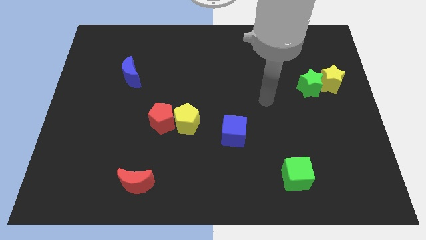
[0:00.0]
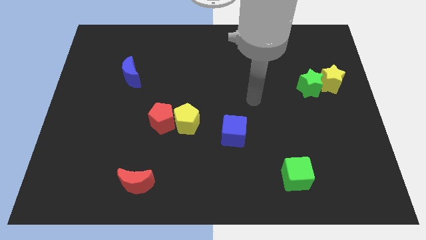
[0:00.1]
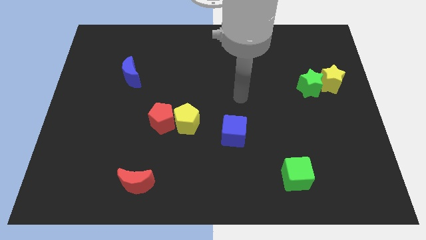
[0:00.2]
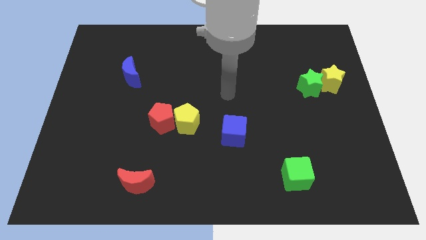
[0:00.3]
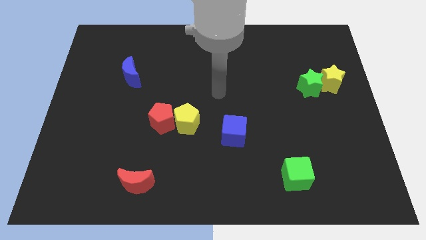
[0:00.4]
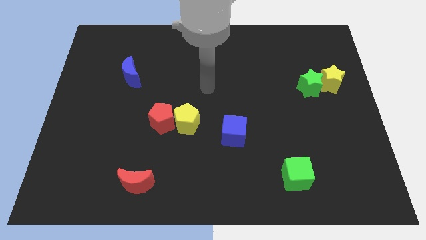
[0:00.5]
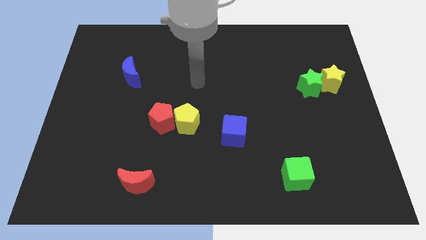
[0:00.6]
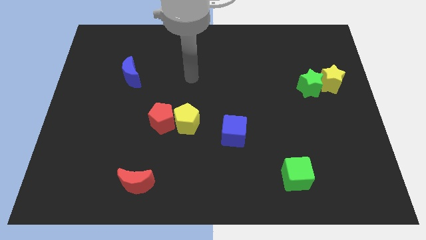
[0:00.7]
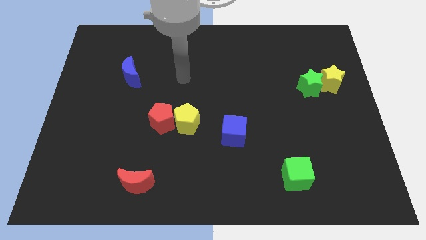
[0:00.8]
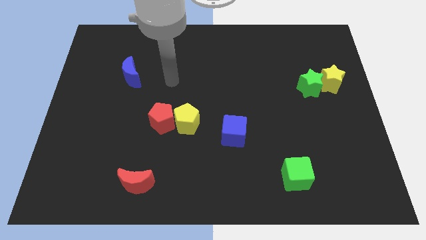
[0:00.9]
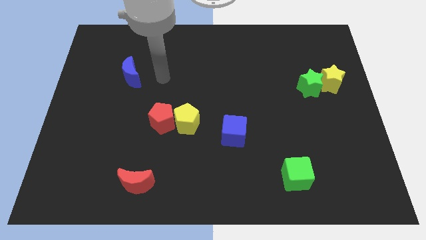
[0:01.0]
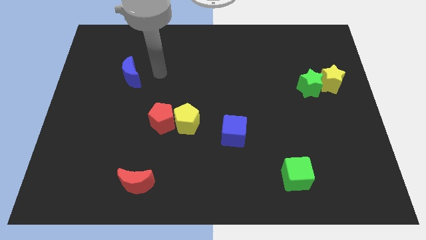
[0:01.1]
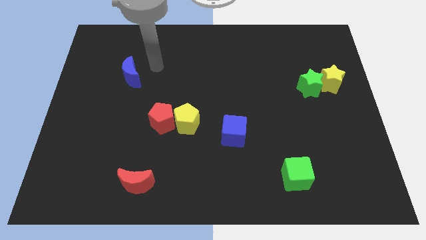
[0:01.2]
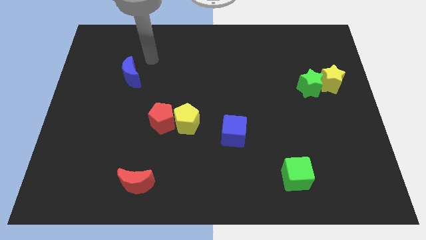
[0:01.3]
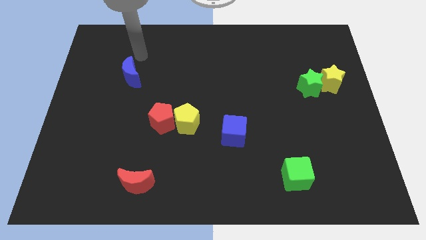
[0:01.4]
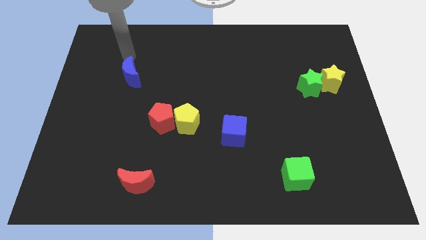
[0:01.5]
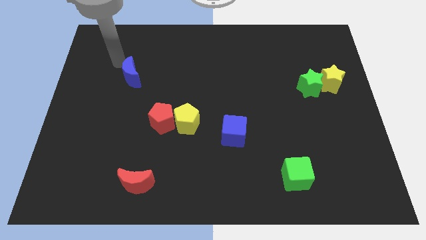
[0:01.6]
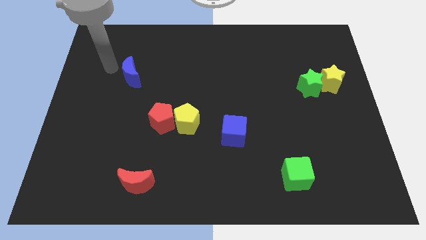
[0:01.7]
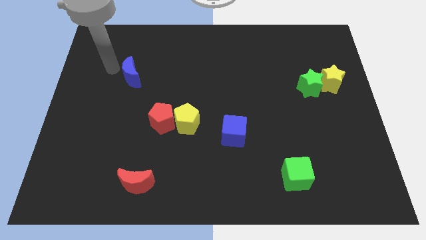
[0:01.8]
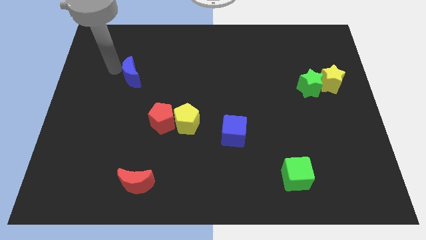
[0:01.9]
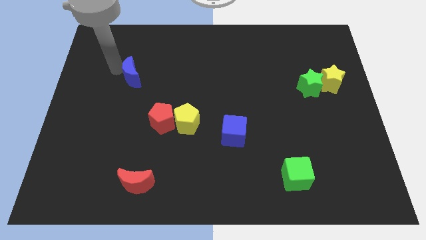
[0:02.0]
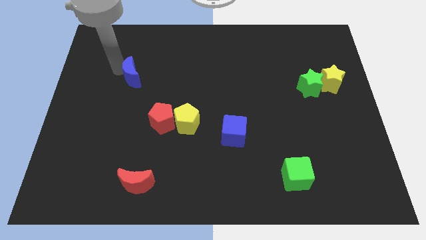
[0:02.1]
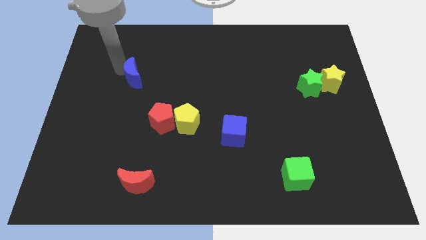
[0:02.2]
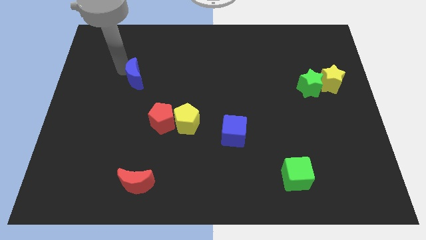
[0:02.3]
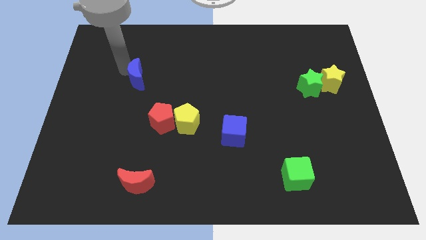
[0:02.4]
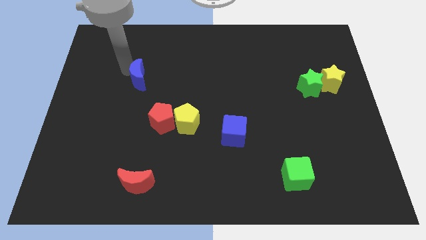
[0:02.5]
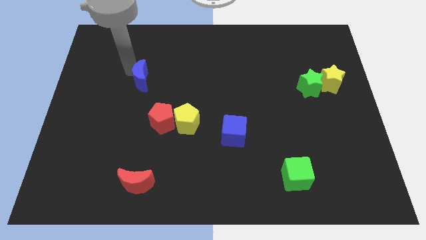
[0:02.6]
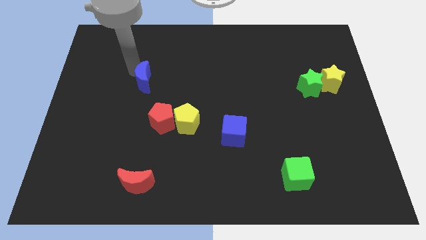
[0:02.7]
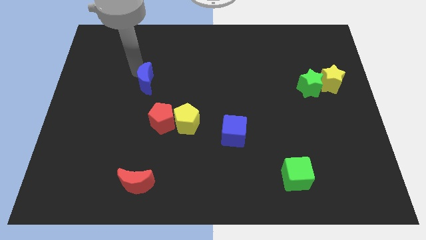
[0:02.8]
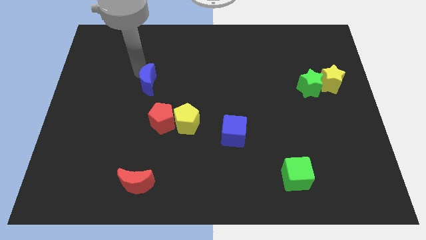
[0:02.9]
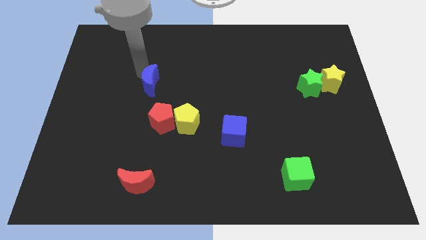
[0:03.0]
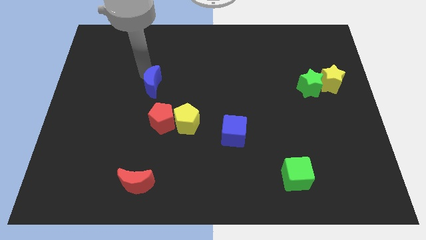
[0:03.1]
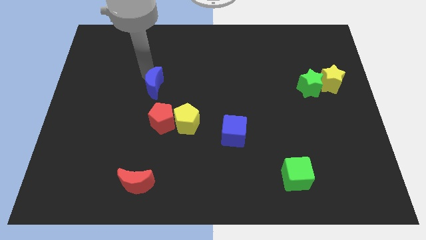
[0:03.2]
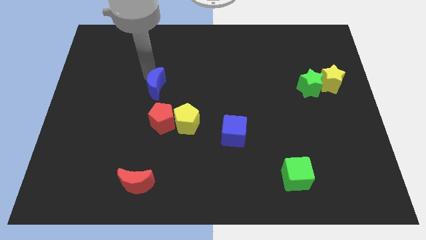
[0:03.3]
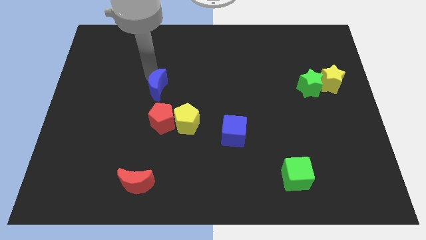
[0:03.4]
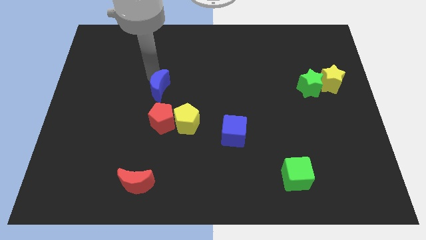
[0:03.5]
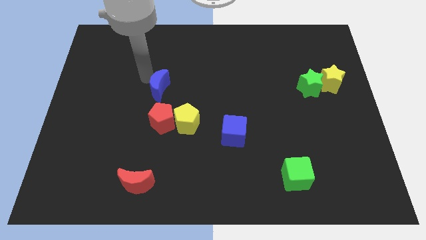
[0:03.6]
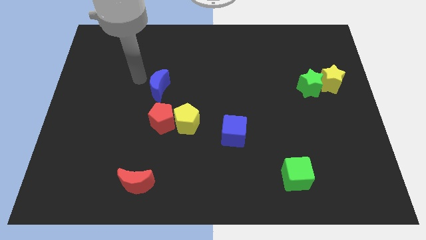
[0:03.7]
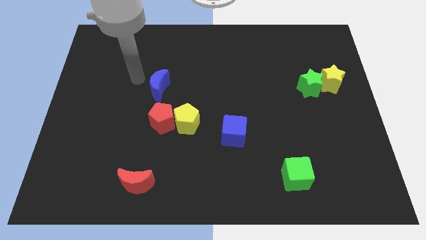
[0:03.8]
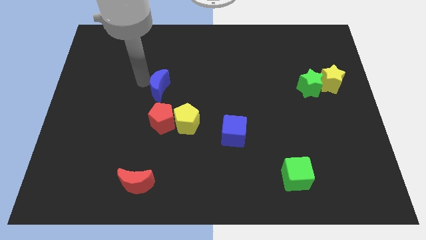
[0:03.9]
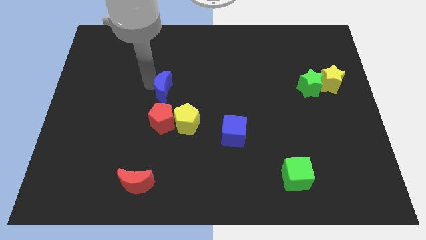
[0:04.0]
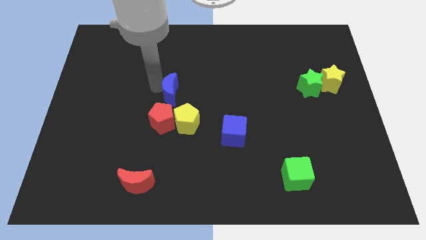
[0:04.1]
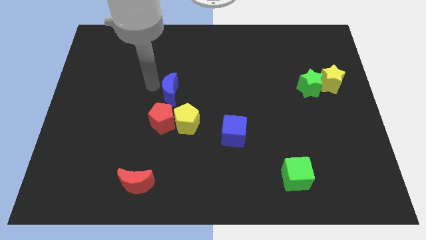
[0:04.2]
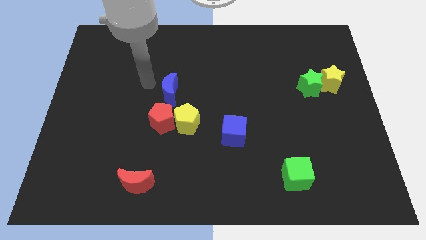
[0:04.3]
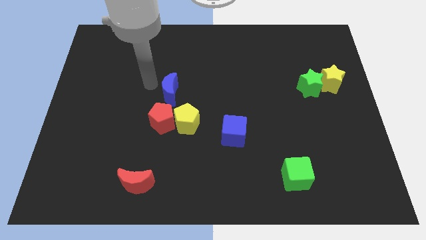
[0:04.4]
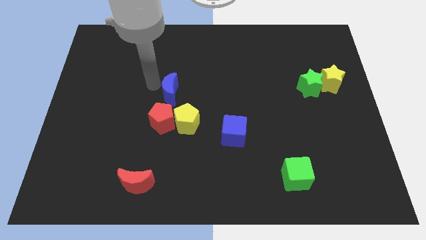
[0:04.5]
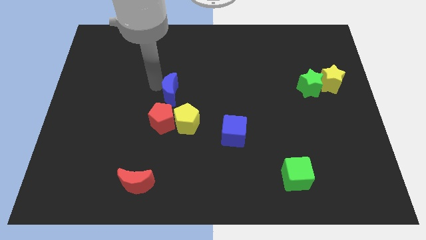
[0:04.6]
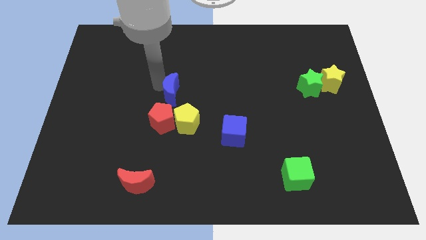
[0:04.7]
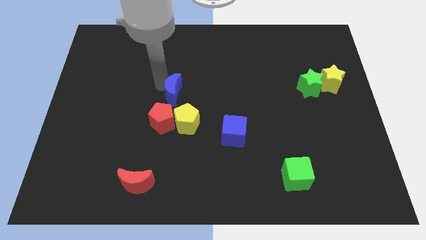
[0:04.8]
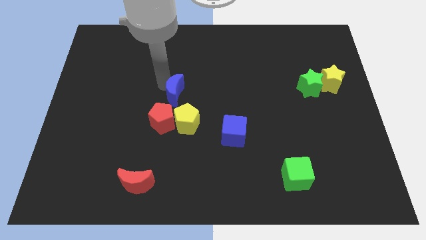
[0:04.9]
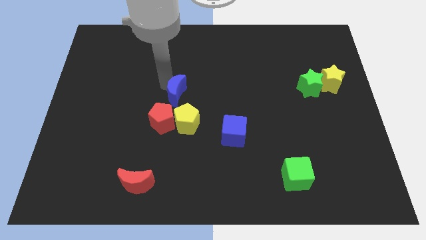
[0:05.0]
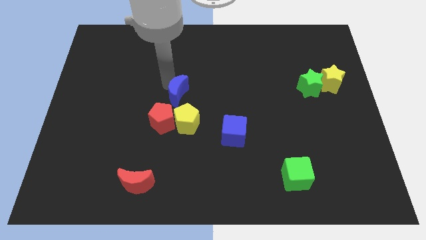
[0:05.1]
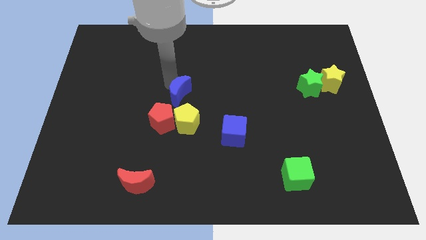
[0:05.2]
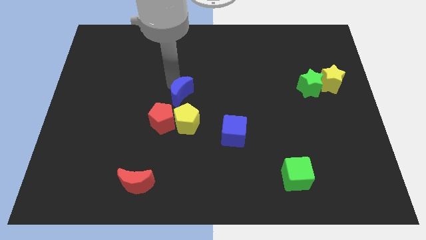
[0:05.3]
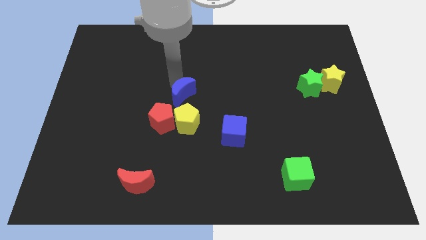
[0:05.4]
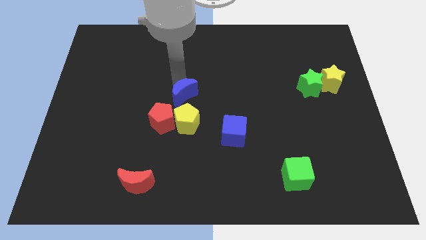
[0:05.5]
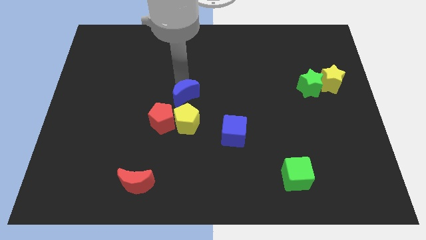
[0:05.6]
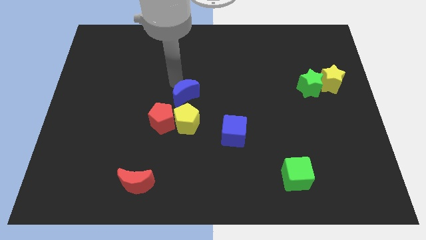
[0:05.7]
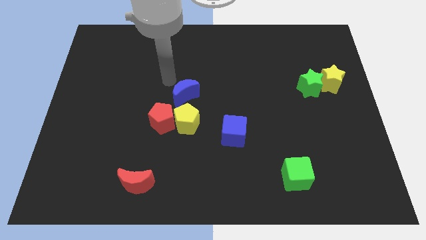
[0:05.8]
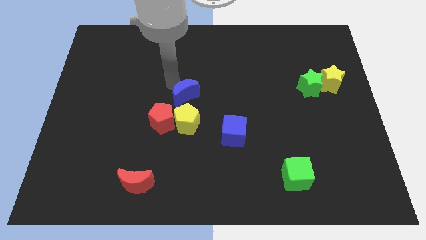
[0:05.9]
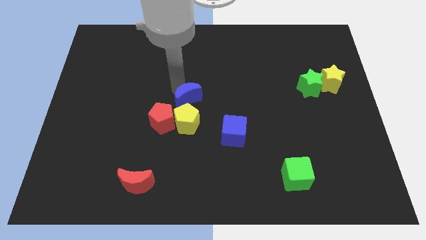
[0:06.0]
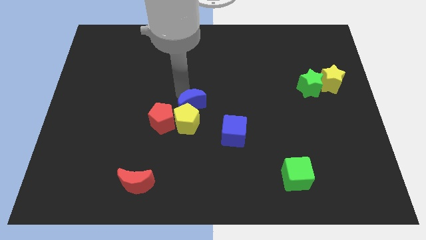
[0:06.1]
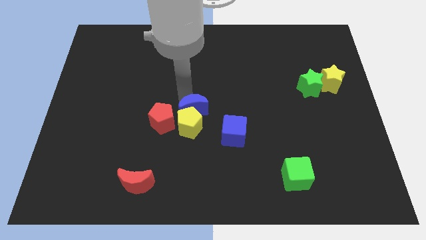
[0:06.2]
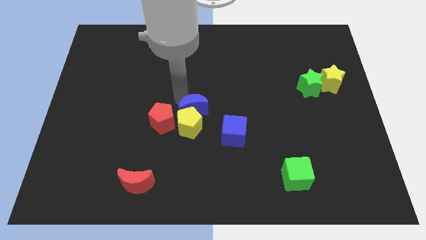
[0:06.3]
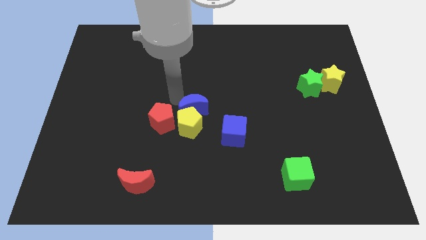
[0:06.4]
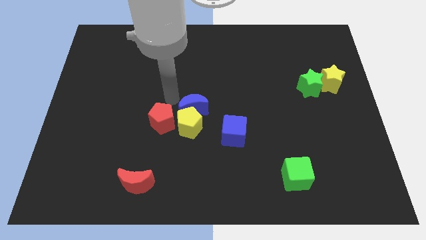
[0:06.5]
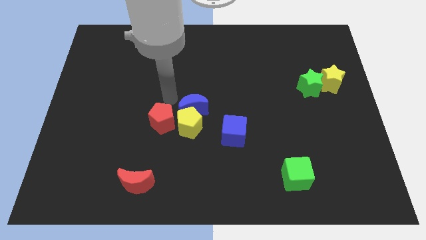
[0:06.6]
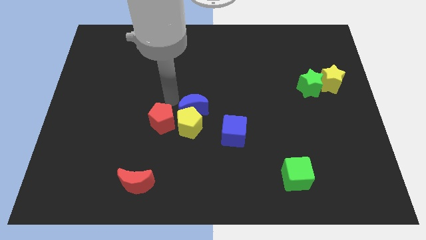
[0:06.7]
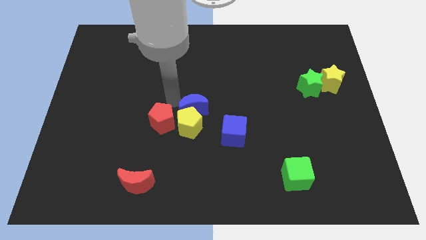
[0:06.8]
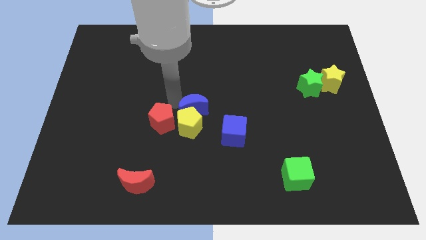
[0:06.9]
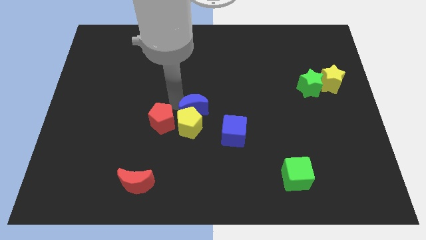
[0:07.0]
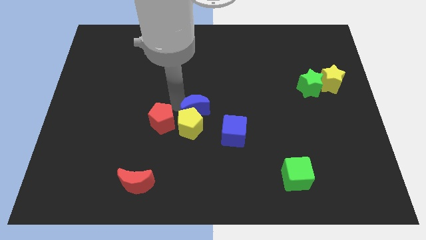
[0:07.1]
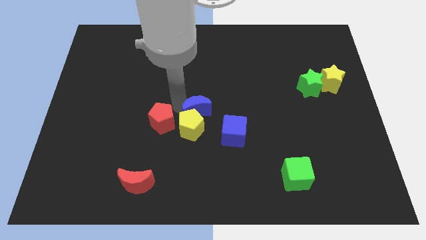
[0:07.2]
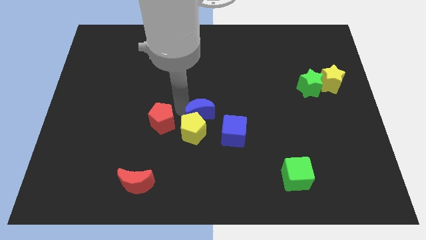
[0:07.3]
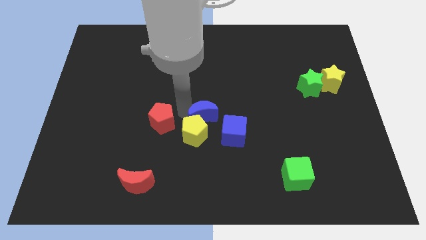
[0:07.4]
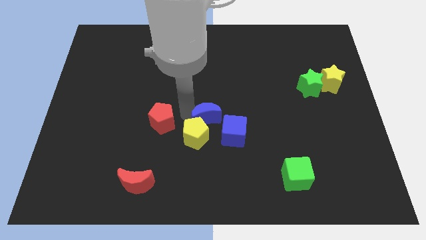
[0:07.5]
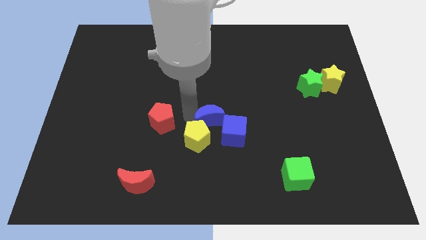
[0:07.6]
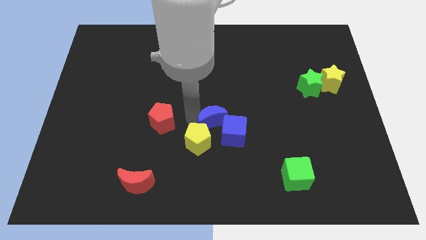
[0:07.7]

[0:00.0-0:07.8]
slide the blue moon next to the blue cube
